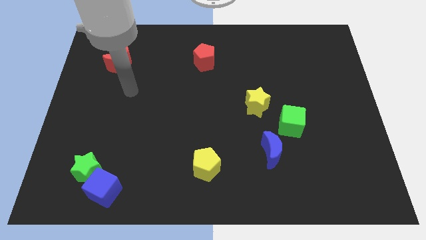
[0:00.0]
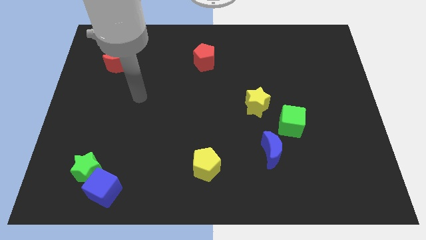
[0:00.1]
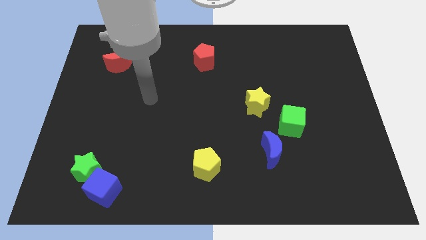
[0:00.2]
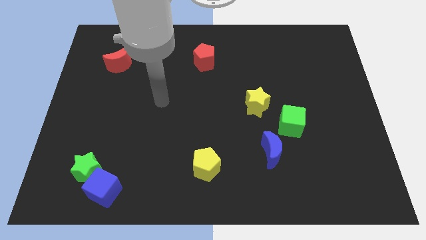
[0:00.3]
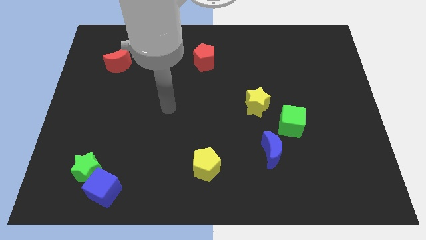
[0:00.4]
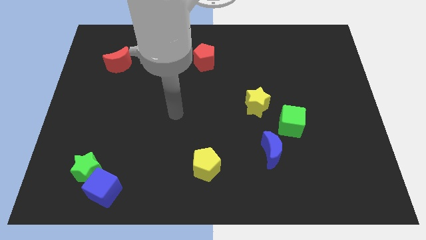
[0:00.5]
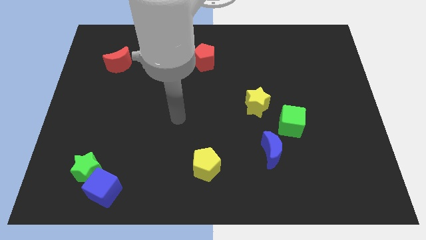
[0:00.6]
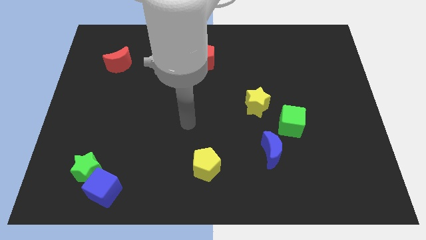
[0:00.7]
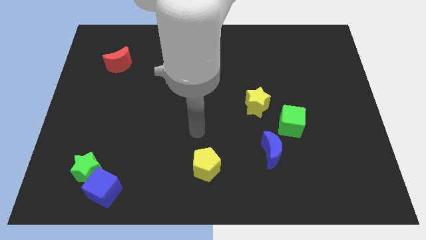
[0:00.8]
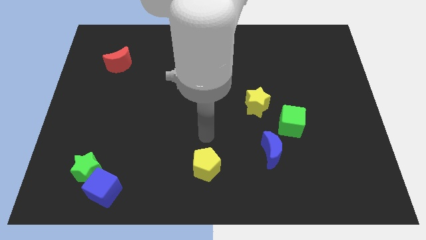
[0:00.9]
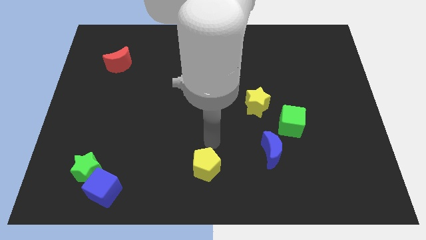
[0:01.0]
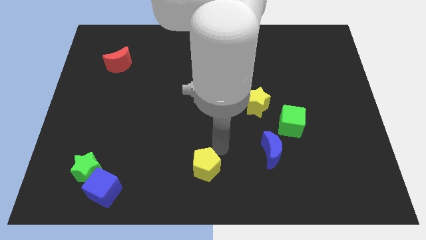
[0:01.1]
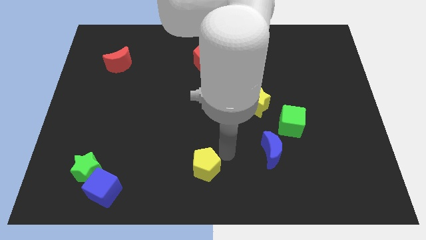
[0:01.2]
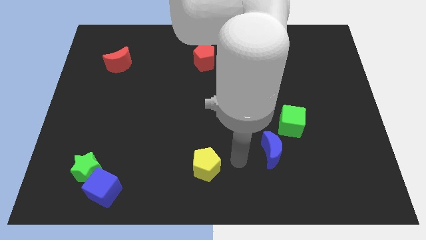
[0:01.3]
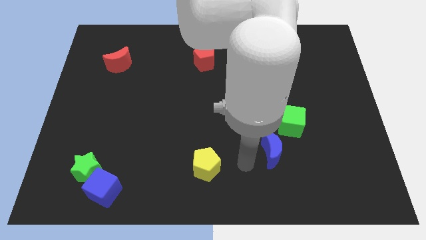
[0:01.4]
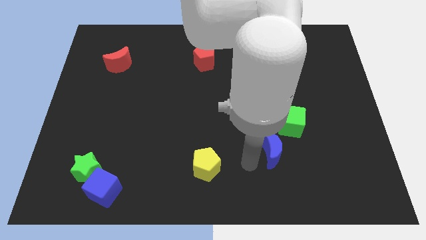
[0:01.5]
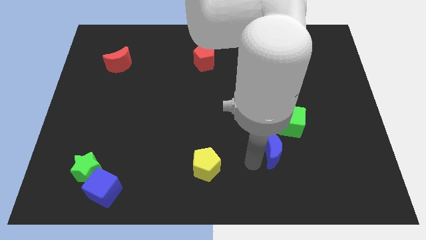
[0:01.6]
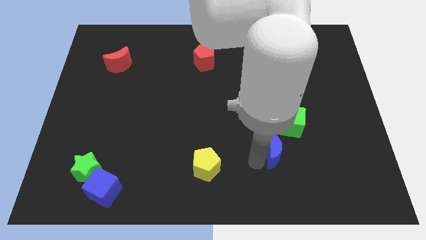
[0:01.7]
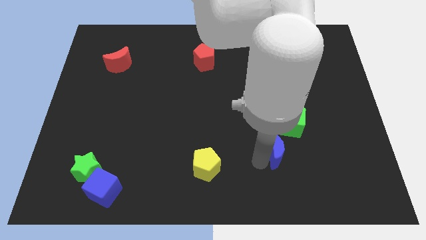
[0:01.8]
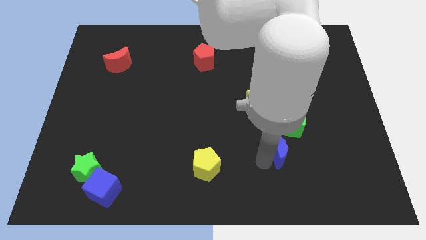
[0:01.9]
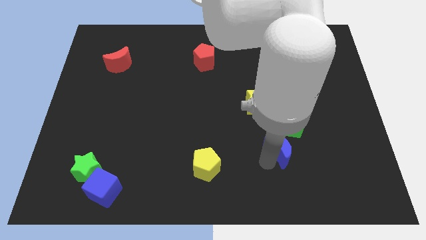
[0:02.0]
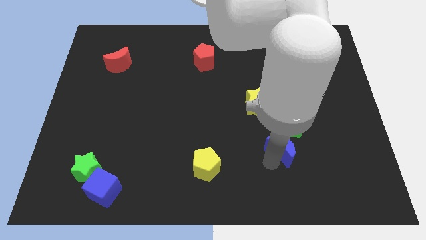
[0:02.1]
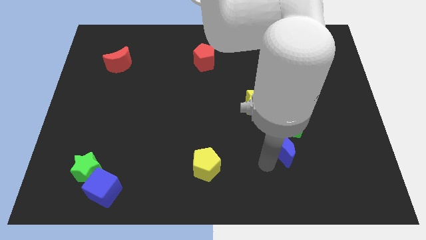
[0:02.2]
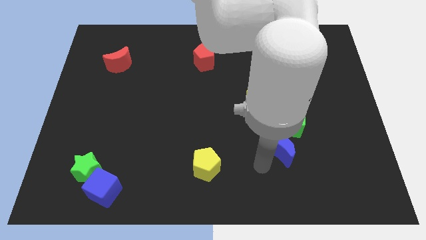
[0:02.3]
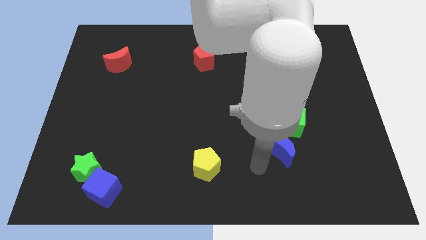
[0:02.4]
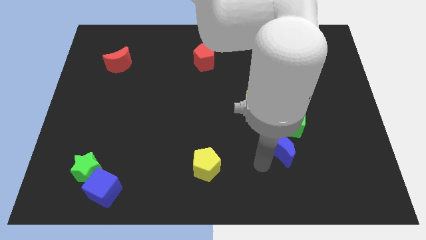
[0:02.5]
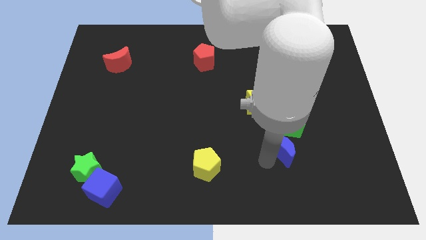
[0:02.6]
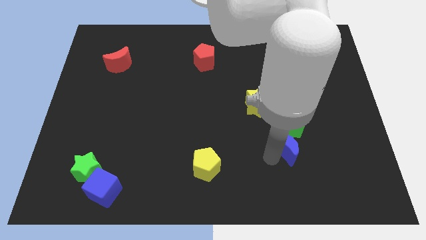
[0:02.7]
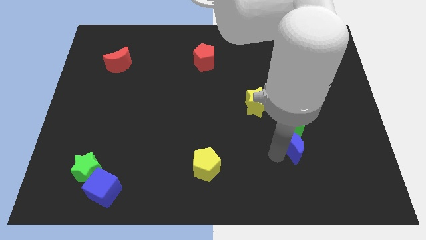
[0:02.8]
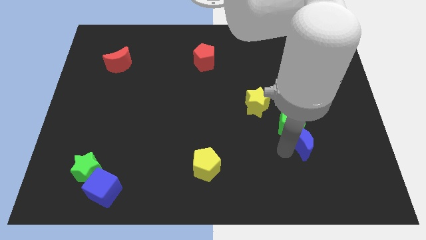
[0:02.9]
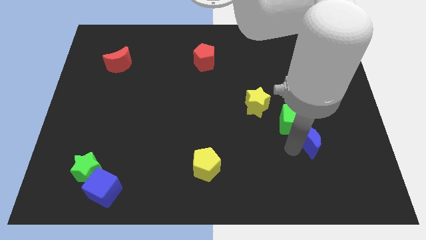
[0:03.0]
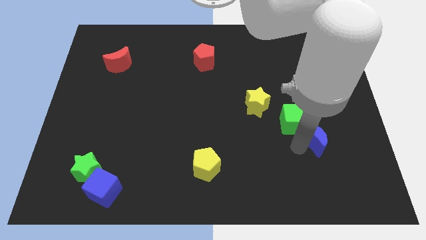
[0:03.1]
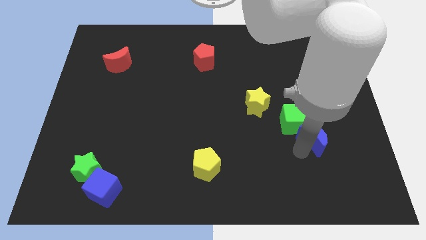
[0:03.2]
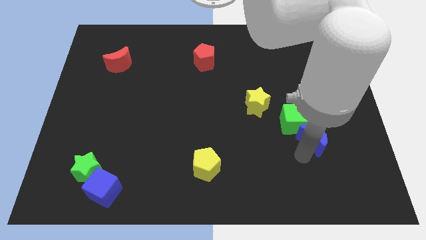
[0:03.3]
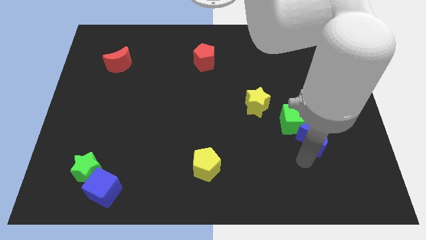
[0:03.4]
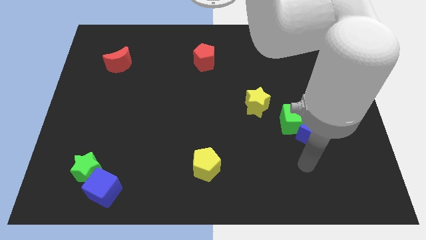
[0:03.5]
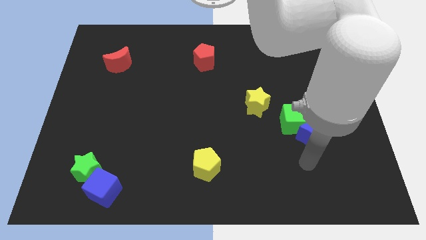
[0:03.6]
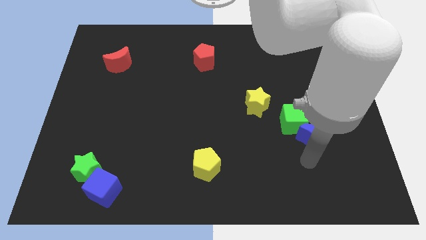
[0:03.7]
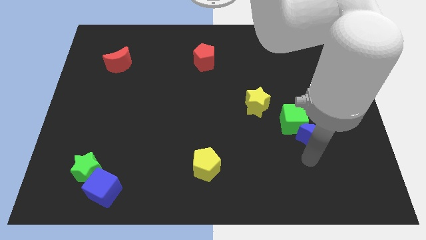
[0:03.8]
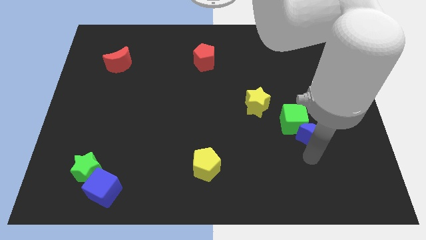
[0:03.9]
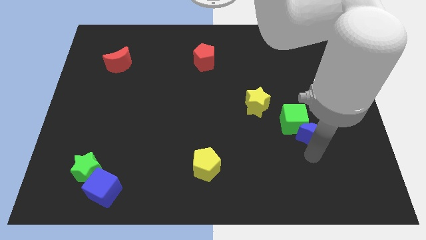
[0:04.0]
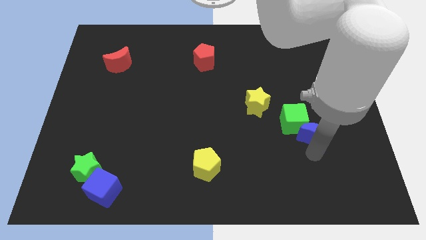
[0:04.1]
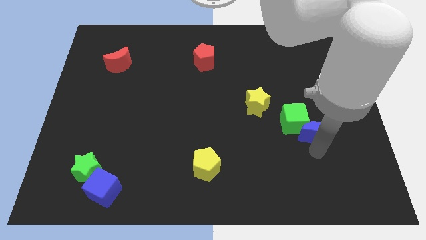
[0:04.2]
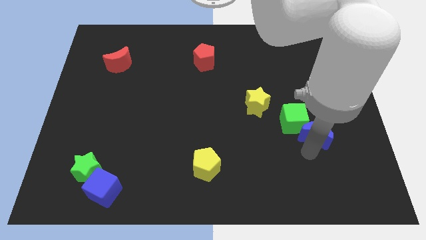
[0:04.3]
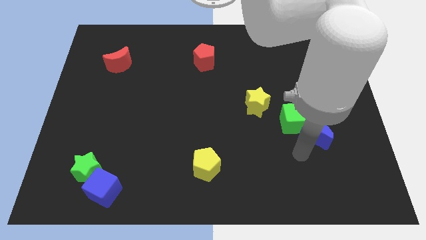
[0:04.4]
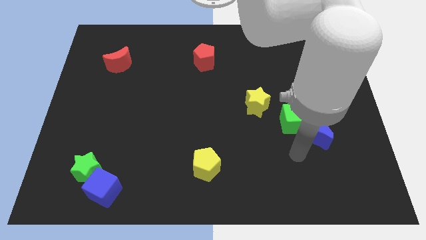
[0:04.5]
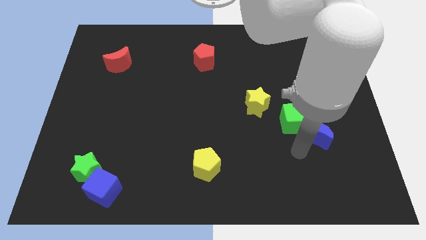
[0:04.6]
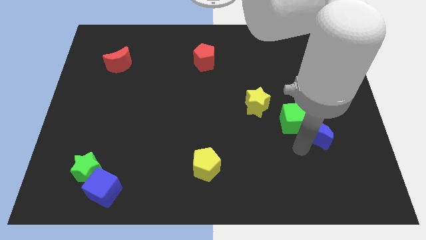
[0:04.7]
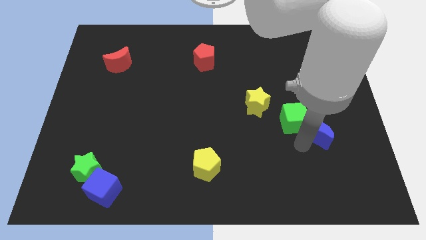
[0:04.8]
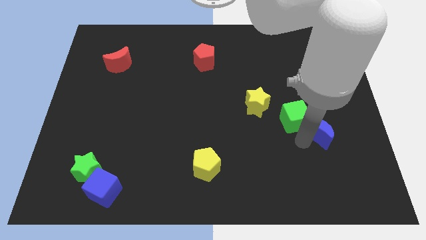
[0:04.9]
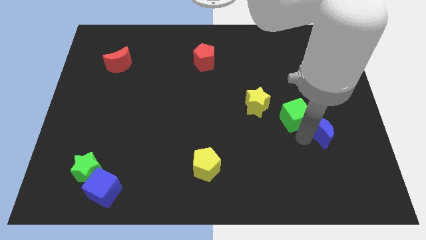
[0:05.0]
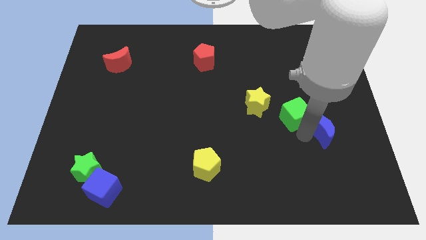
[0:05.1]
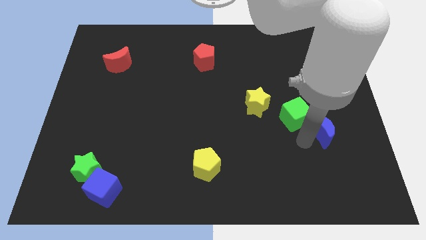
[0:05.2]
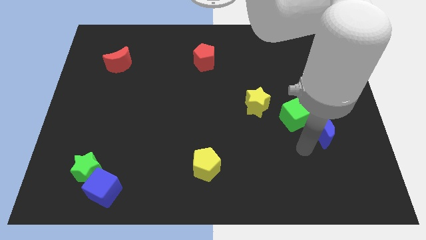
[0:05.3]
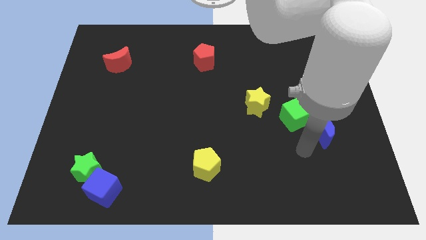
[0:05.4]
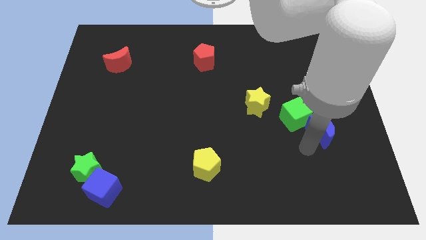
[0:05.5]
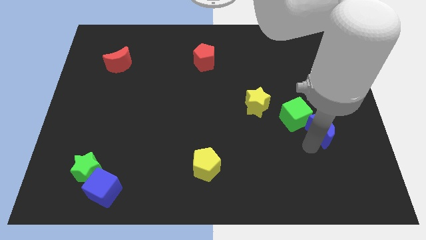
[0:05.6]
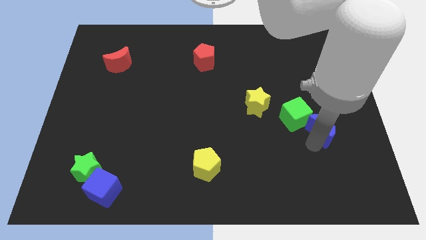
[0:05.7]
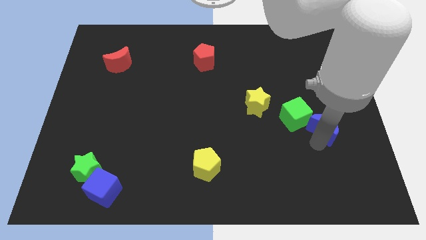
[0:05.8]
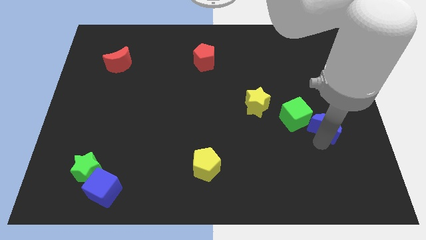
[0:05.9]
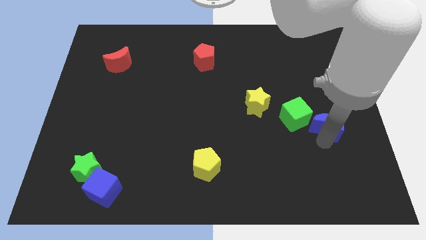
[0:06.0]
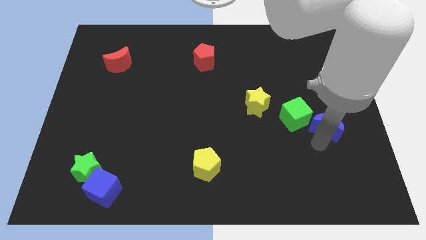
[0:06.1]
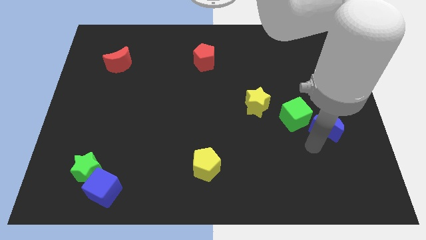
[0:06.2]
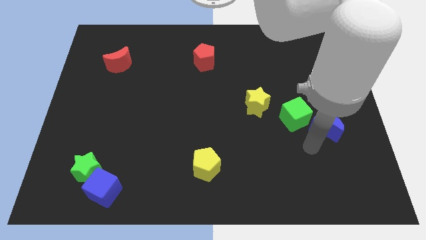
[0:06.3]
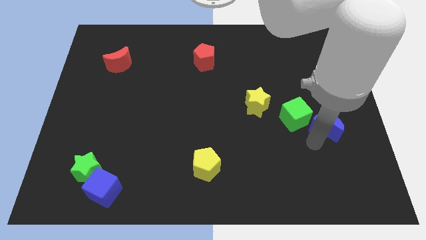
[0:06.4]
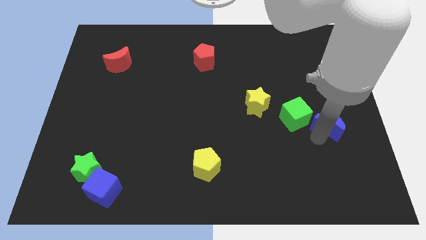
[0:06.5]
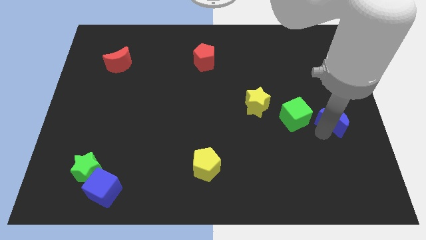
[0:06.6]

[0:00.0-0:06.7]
put the blue moon to the right side

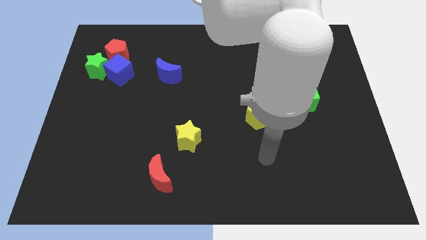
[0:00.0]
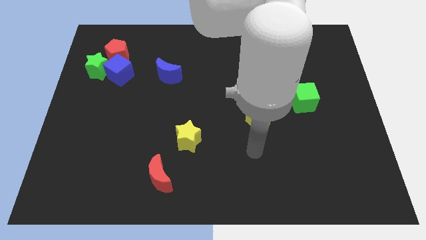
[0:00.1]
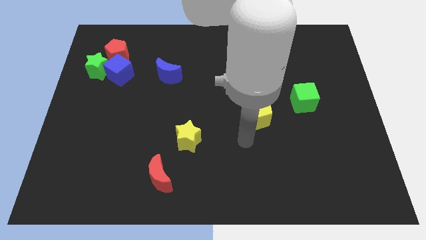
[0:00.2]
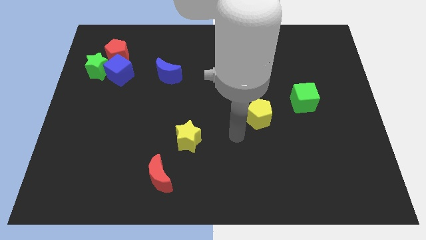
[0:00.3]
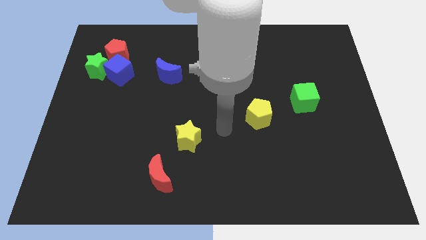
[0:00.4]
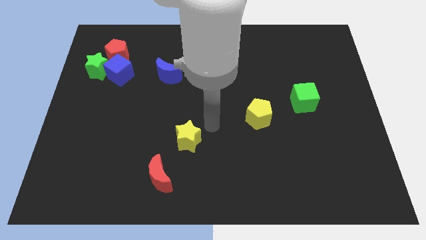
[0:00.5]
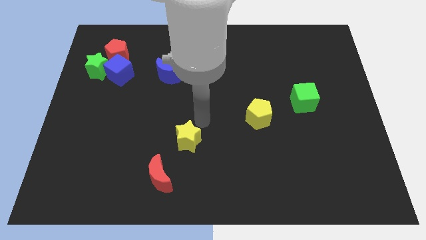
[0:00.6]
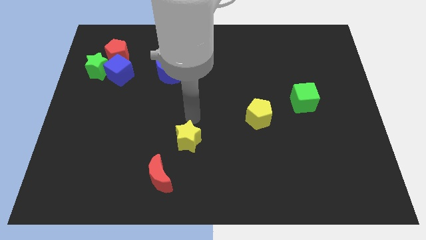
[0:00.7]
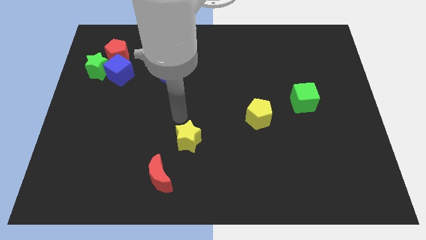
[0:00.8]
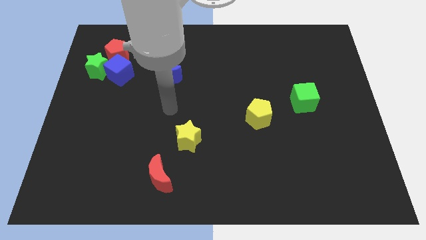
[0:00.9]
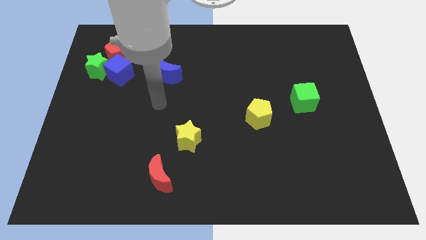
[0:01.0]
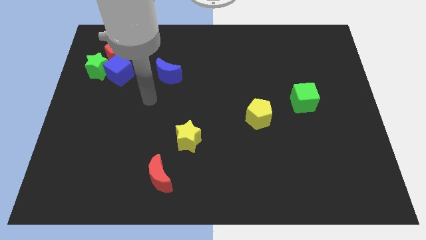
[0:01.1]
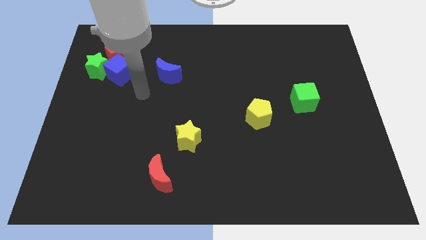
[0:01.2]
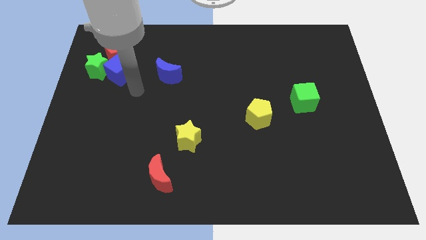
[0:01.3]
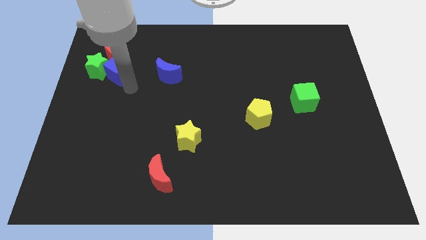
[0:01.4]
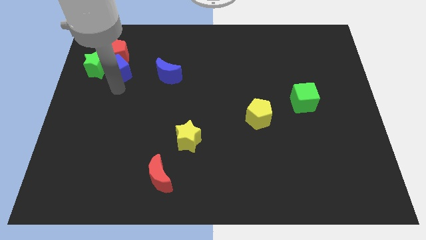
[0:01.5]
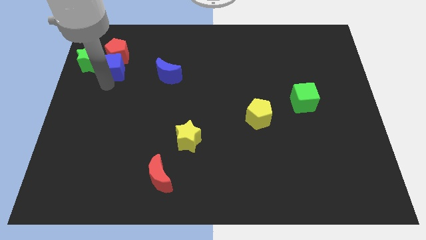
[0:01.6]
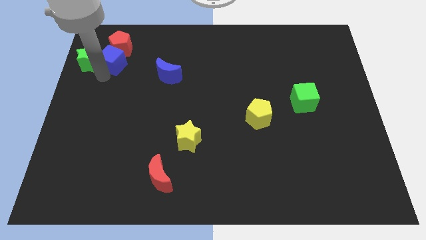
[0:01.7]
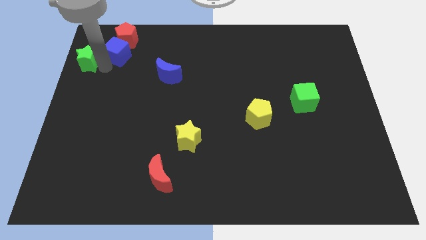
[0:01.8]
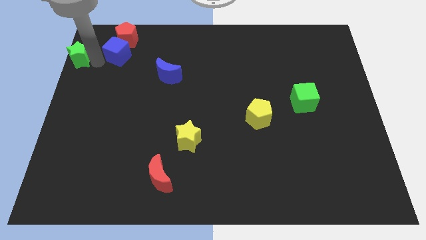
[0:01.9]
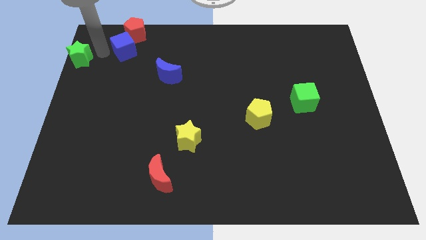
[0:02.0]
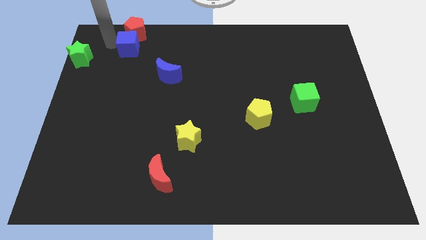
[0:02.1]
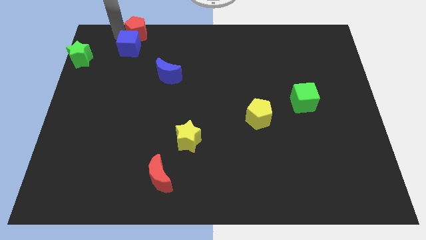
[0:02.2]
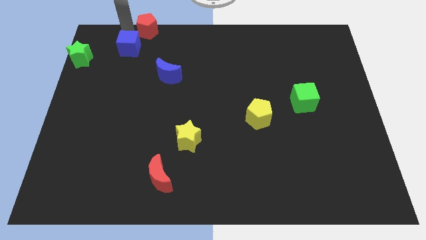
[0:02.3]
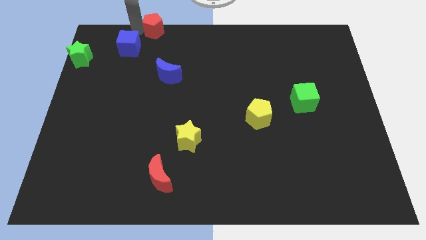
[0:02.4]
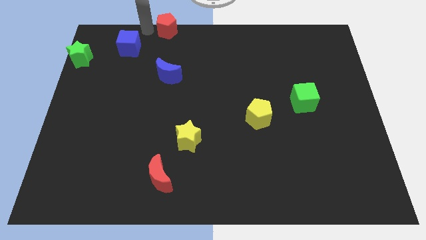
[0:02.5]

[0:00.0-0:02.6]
push the red pentagon to the towards your base
